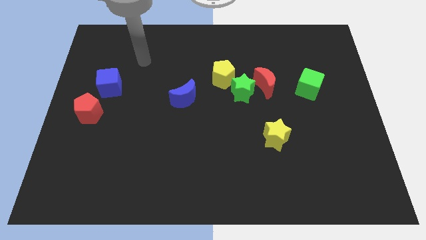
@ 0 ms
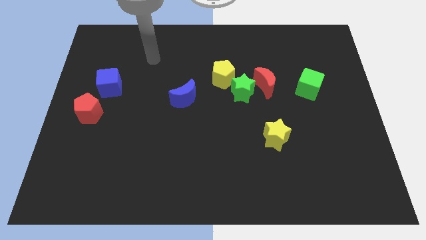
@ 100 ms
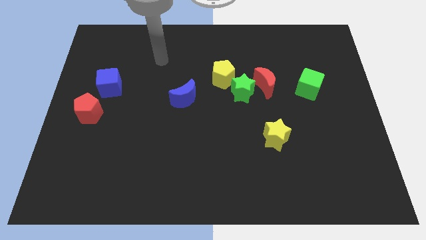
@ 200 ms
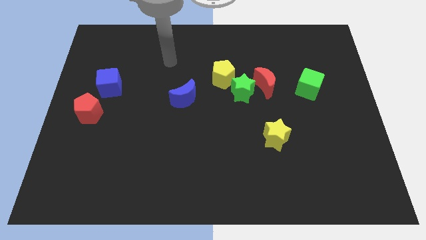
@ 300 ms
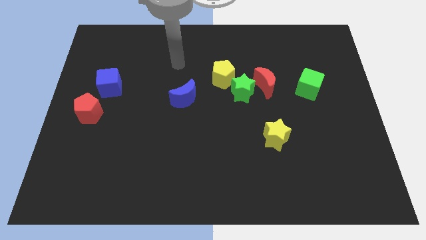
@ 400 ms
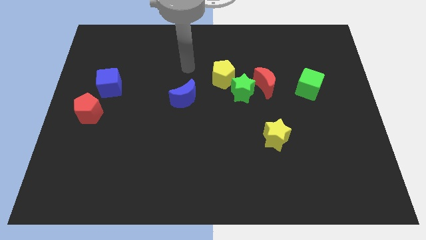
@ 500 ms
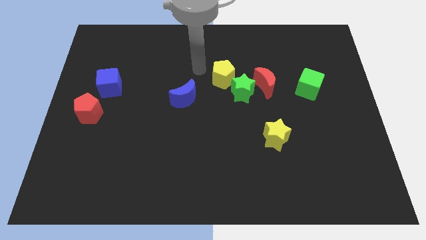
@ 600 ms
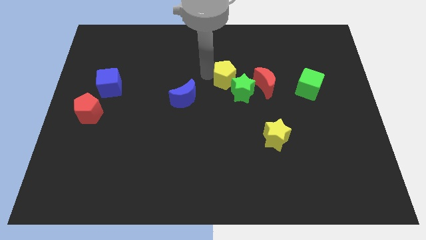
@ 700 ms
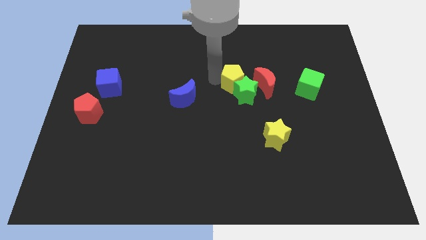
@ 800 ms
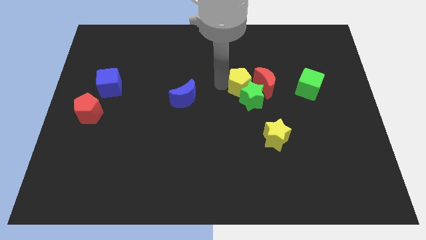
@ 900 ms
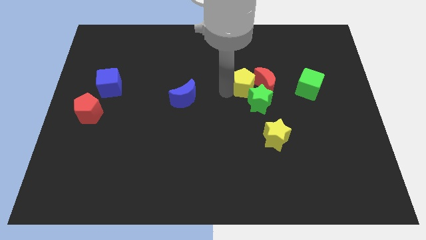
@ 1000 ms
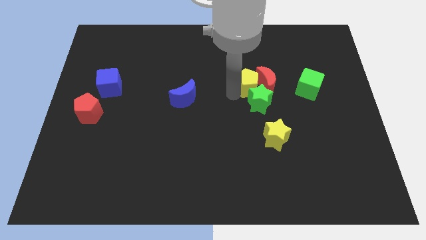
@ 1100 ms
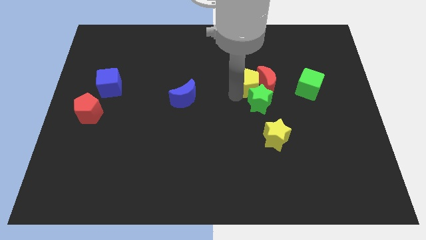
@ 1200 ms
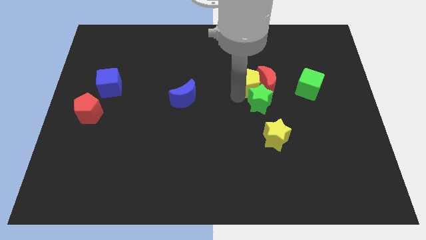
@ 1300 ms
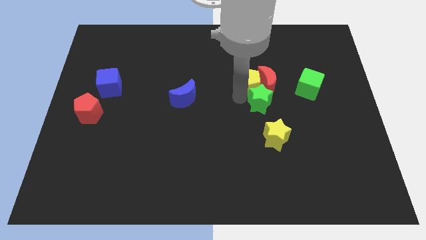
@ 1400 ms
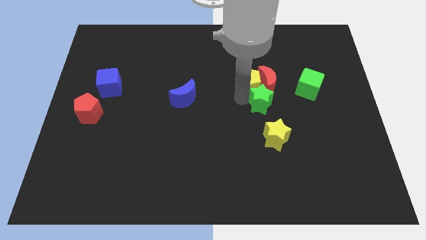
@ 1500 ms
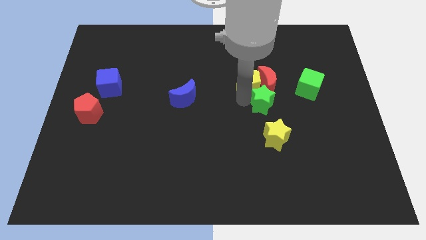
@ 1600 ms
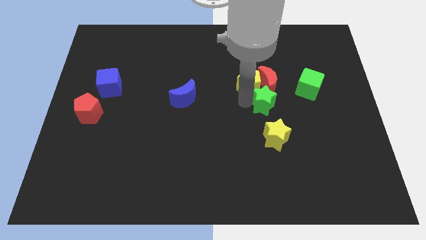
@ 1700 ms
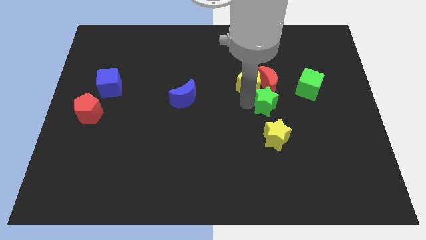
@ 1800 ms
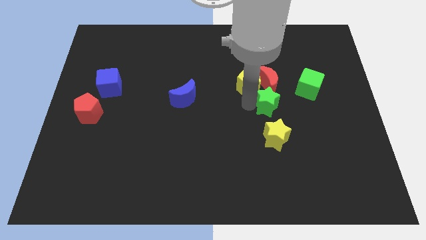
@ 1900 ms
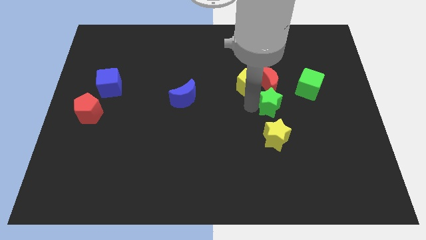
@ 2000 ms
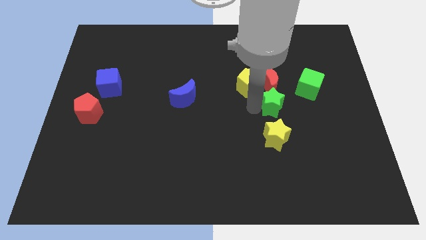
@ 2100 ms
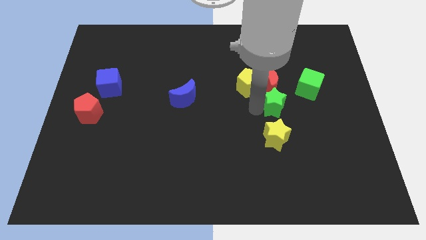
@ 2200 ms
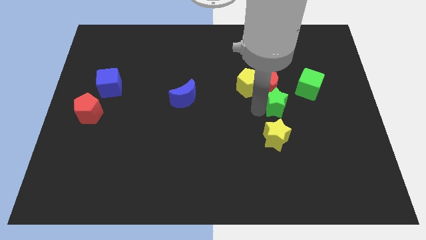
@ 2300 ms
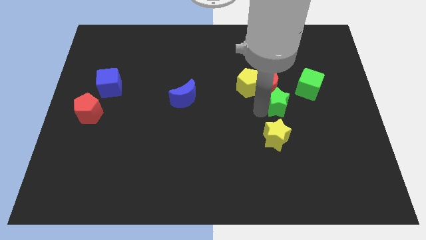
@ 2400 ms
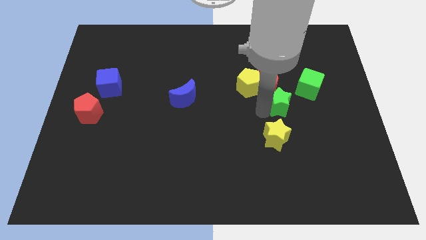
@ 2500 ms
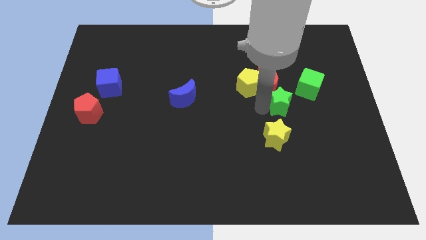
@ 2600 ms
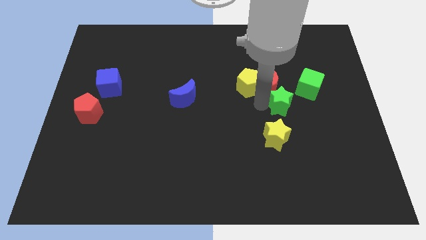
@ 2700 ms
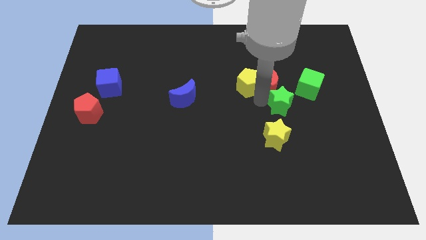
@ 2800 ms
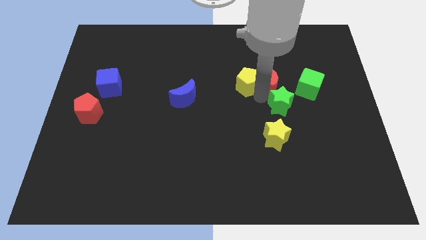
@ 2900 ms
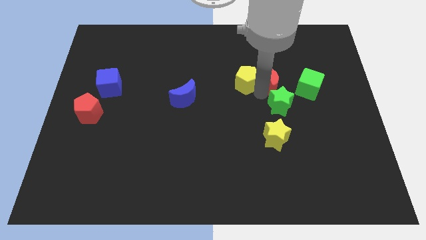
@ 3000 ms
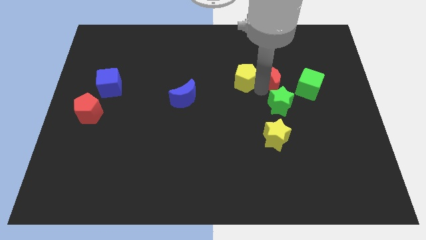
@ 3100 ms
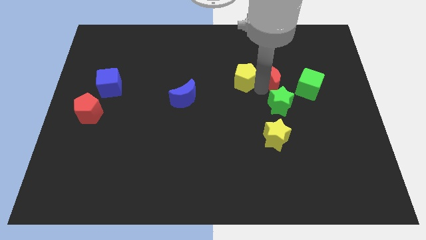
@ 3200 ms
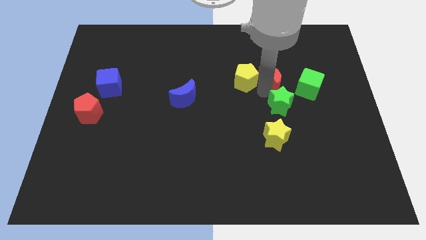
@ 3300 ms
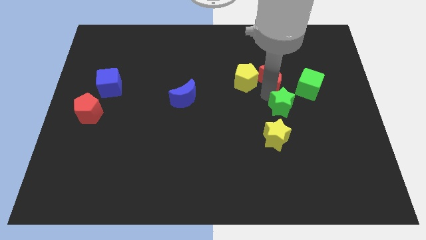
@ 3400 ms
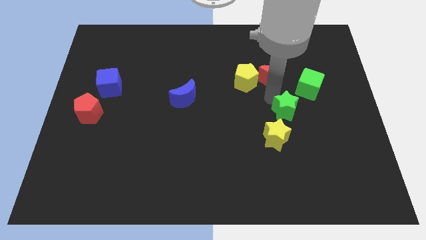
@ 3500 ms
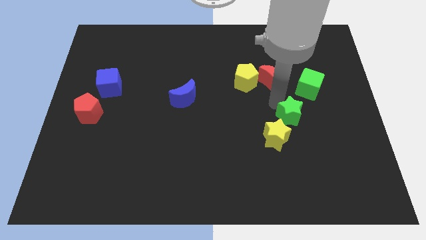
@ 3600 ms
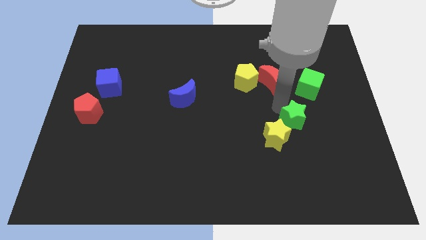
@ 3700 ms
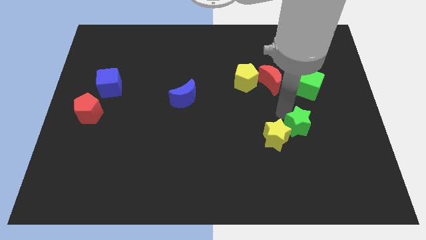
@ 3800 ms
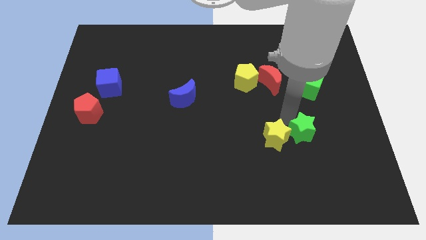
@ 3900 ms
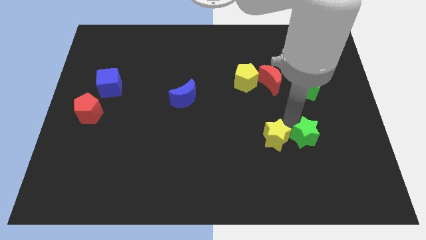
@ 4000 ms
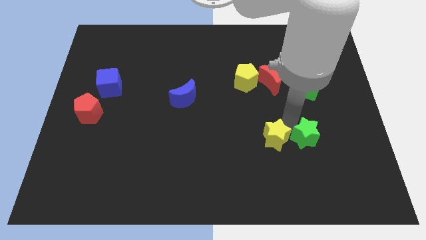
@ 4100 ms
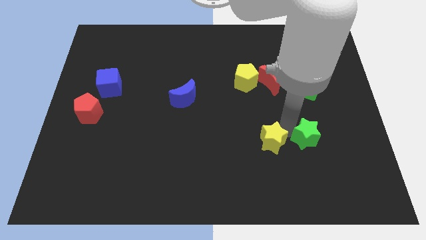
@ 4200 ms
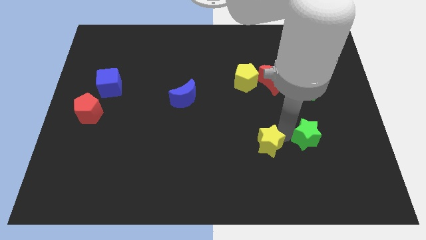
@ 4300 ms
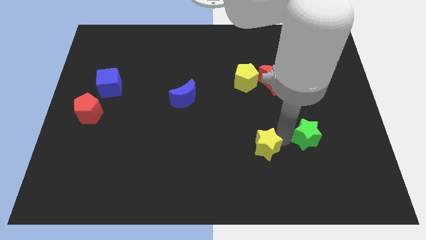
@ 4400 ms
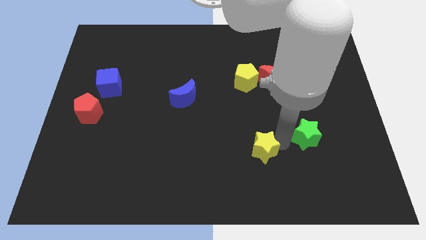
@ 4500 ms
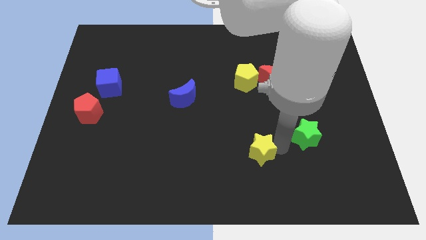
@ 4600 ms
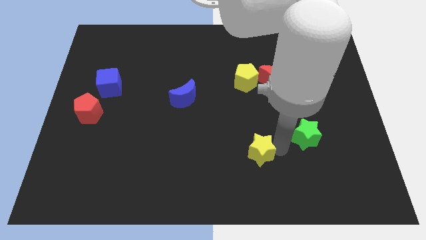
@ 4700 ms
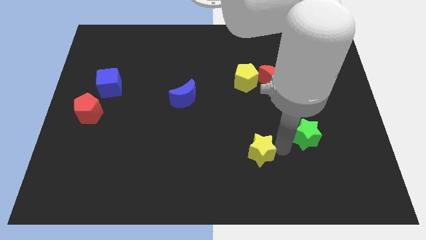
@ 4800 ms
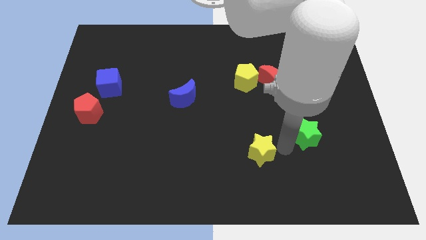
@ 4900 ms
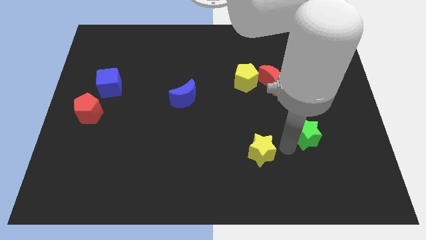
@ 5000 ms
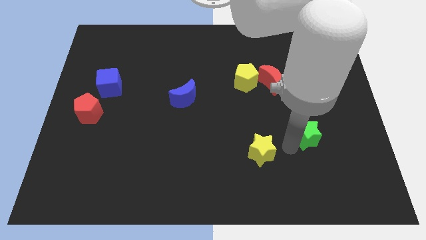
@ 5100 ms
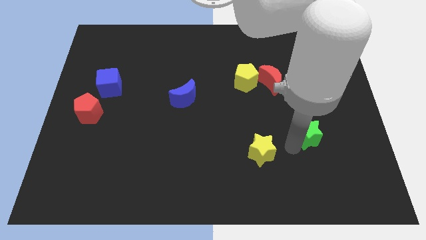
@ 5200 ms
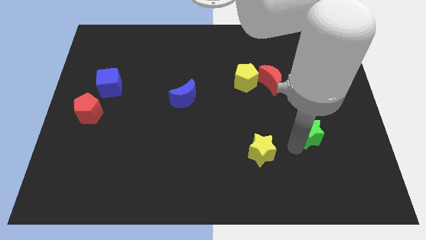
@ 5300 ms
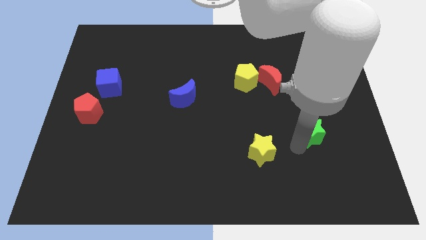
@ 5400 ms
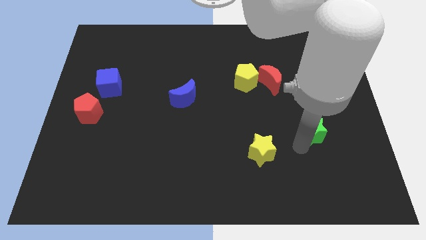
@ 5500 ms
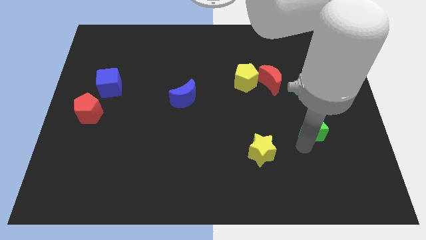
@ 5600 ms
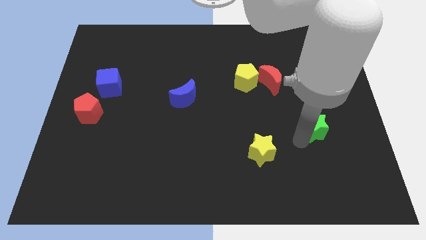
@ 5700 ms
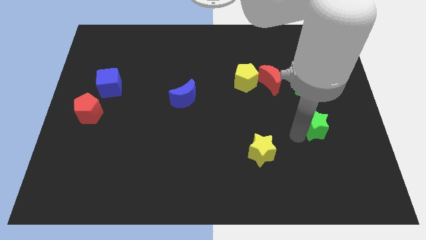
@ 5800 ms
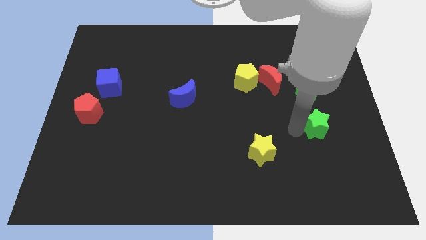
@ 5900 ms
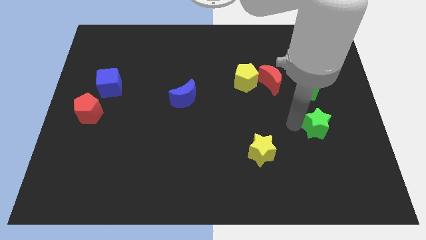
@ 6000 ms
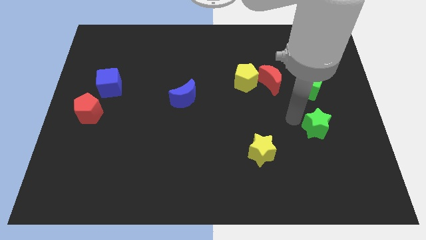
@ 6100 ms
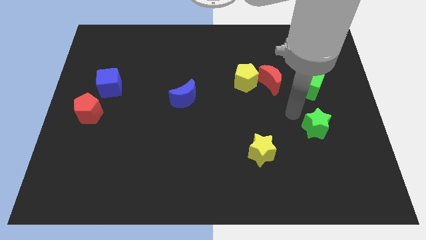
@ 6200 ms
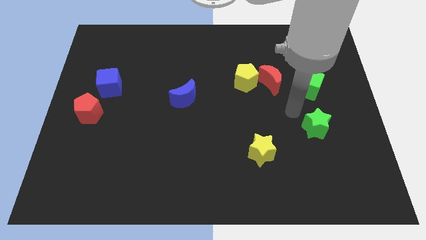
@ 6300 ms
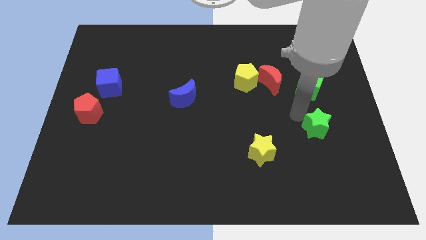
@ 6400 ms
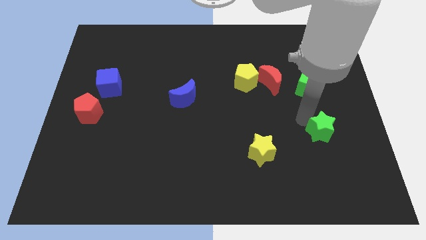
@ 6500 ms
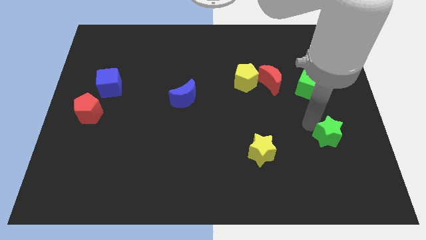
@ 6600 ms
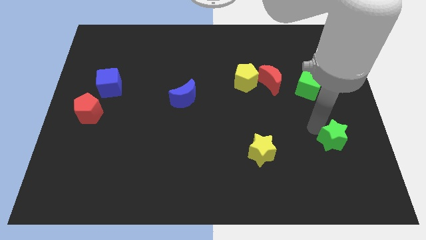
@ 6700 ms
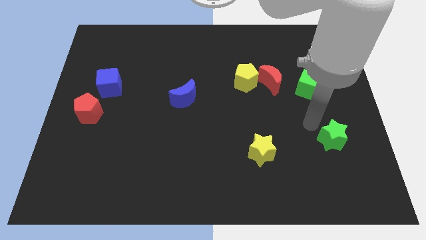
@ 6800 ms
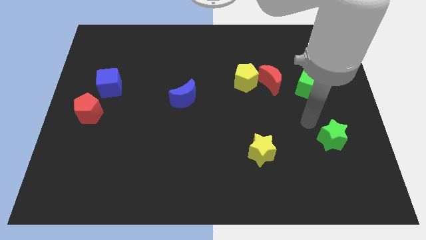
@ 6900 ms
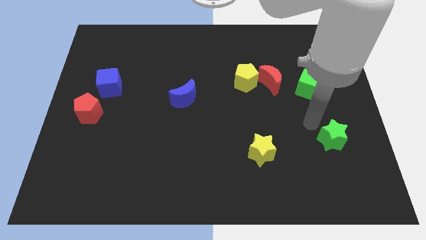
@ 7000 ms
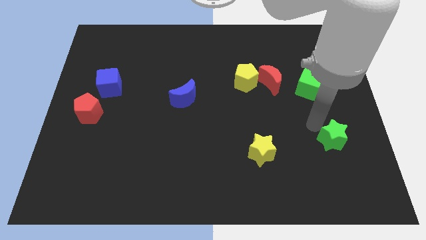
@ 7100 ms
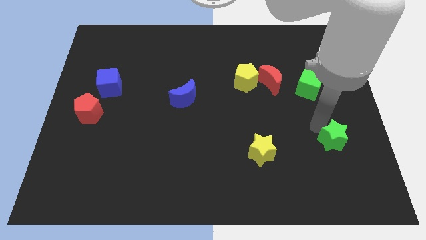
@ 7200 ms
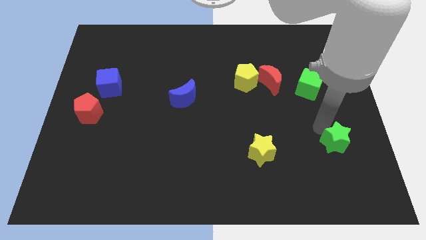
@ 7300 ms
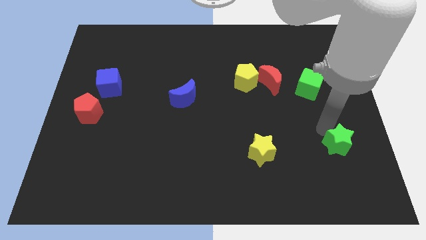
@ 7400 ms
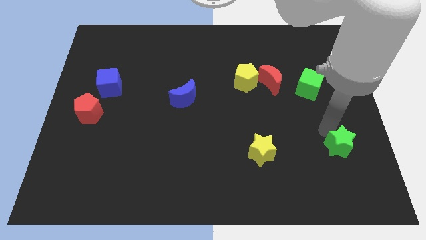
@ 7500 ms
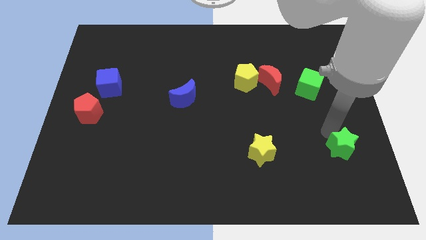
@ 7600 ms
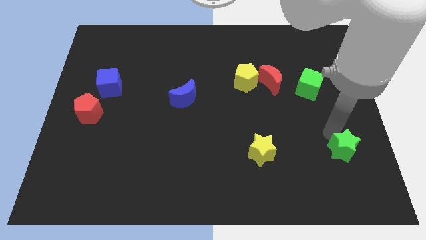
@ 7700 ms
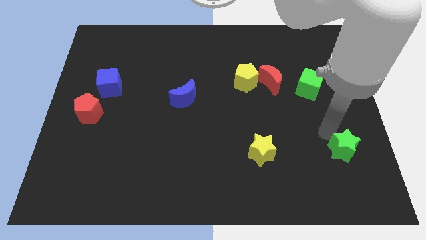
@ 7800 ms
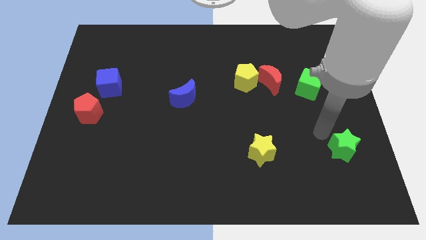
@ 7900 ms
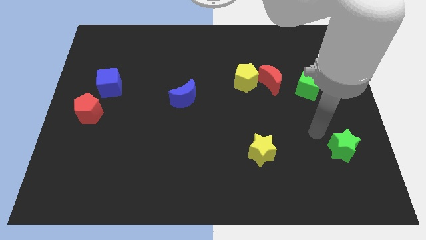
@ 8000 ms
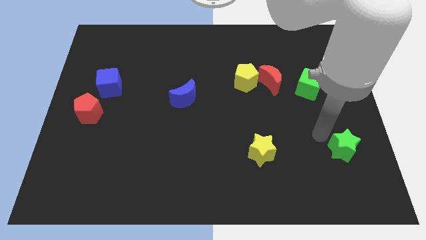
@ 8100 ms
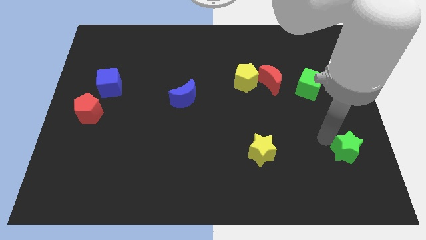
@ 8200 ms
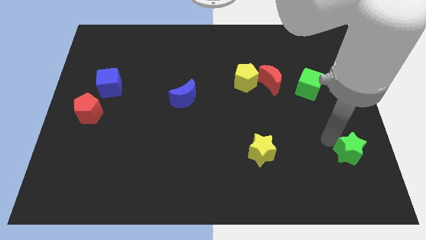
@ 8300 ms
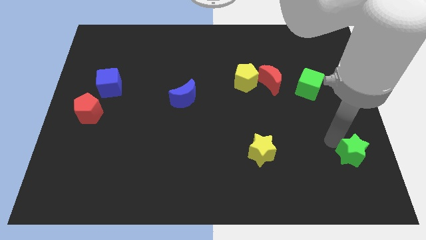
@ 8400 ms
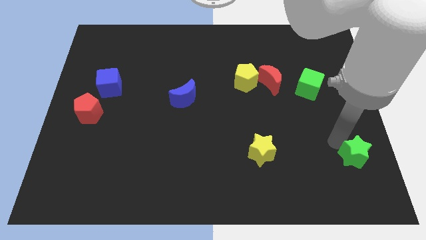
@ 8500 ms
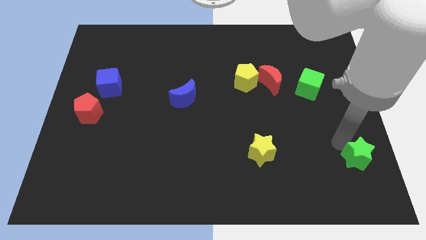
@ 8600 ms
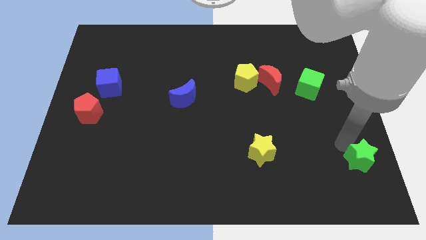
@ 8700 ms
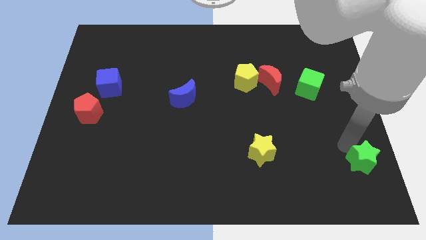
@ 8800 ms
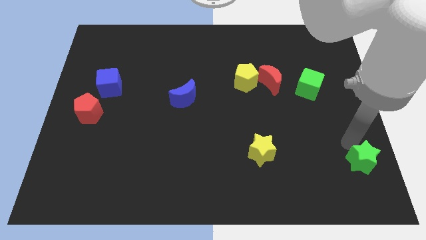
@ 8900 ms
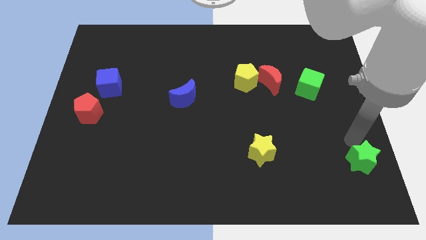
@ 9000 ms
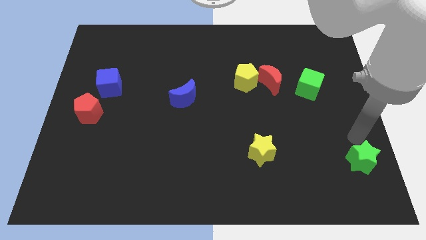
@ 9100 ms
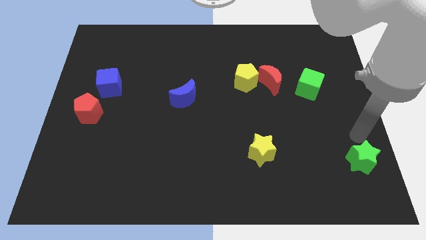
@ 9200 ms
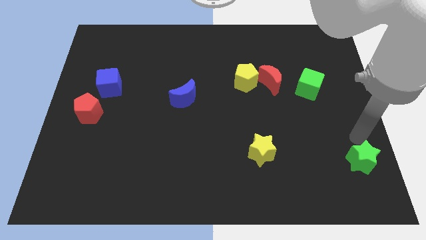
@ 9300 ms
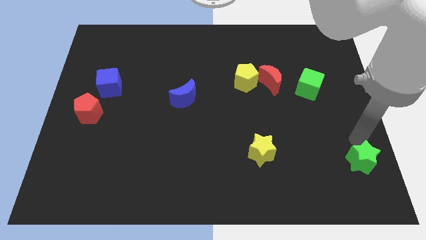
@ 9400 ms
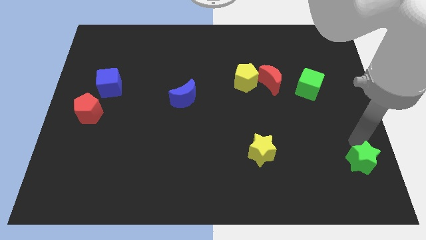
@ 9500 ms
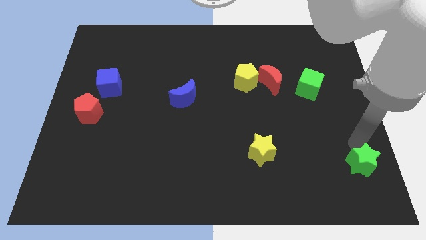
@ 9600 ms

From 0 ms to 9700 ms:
put the green star to the bottom right
